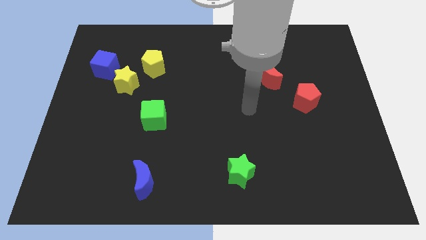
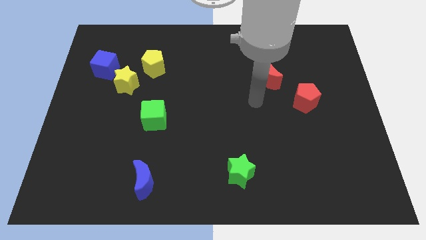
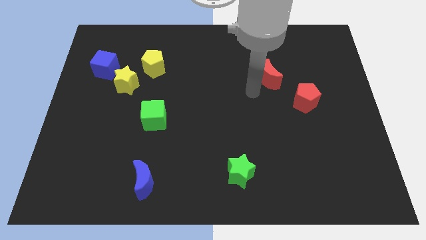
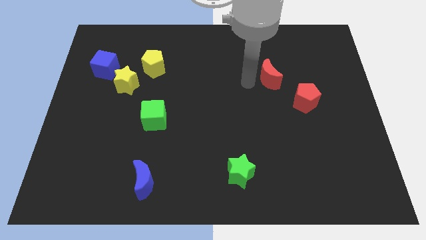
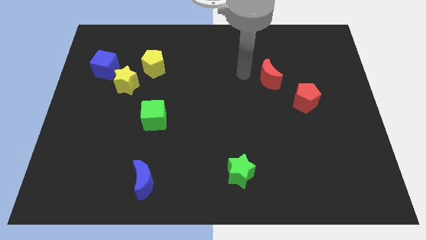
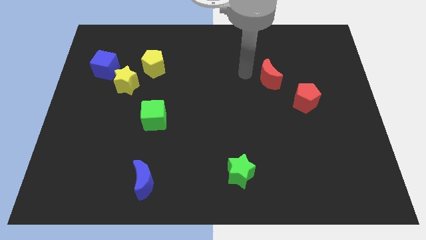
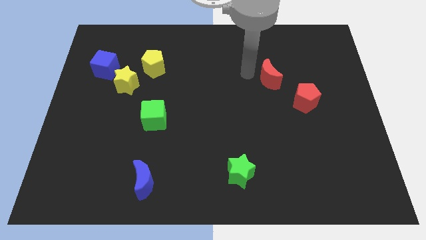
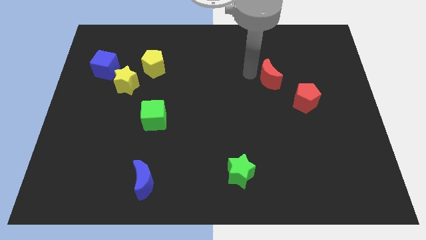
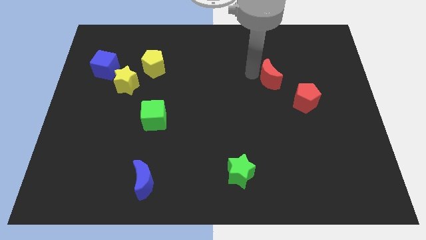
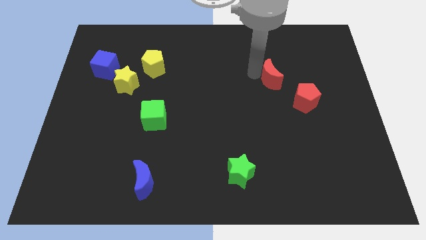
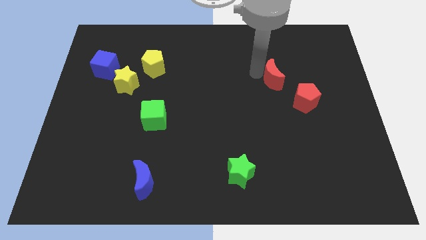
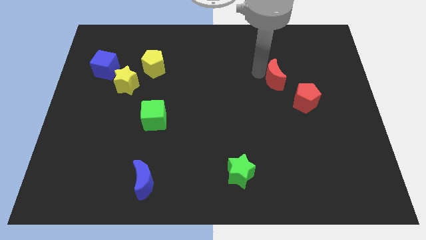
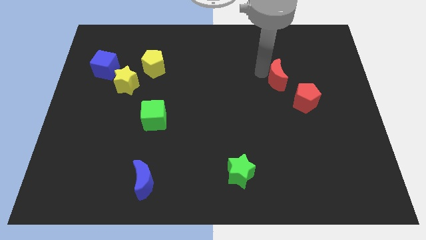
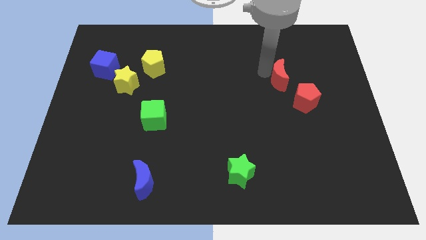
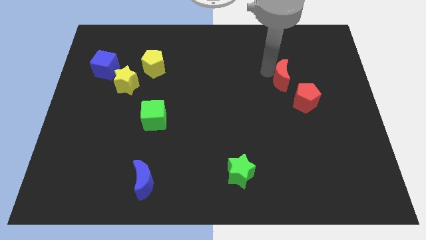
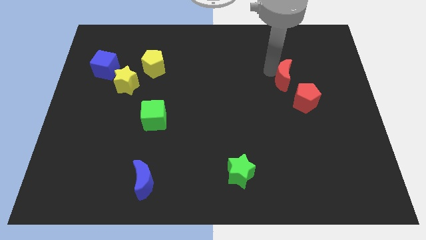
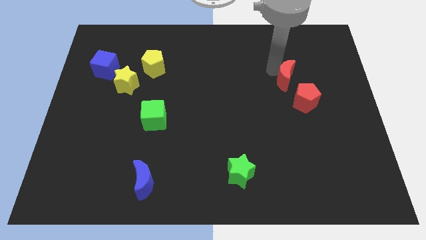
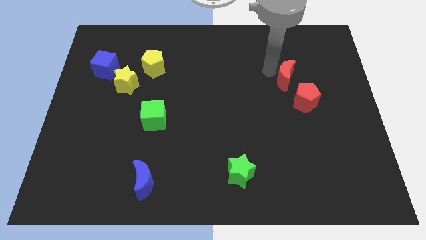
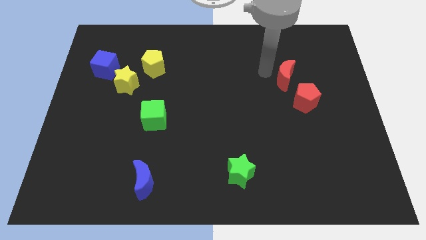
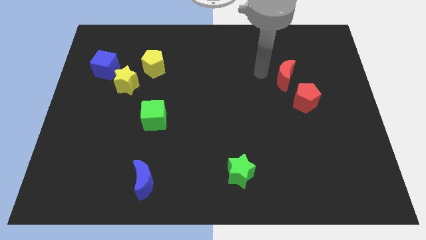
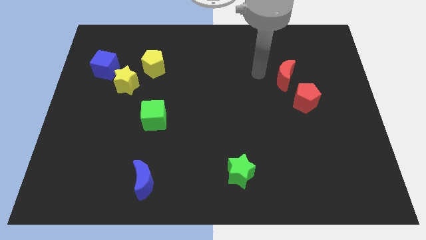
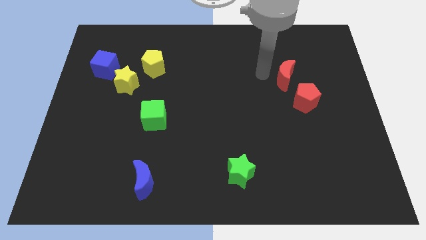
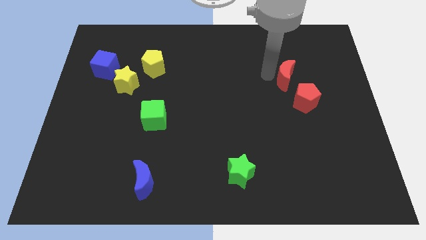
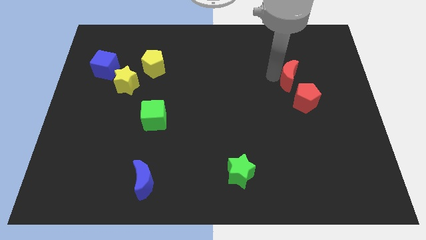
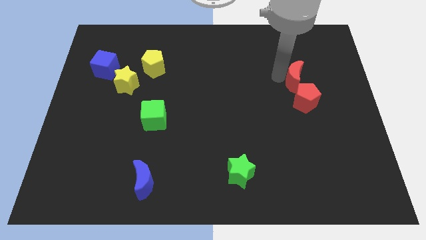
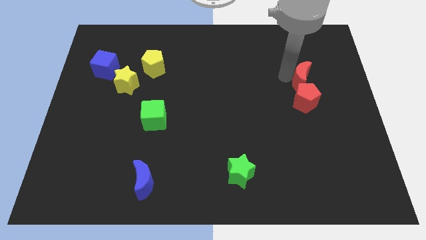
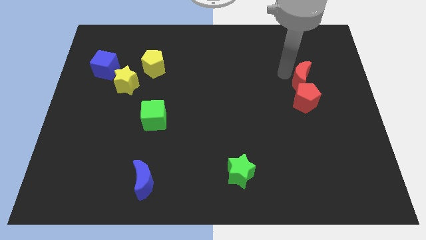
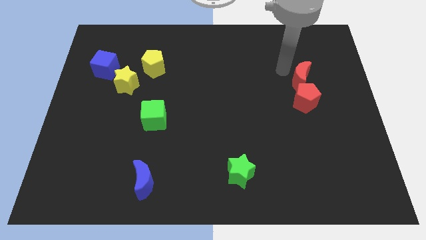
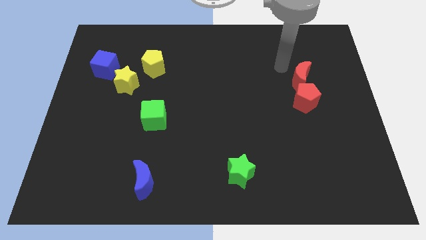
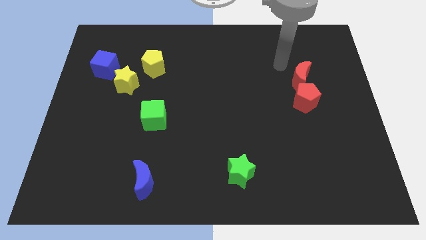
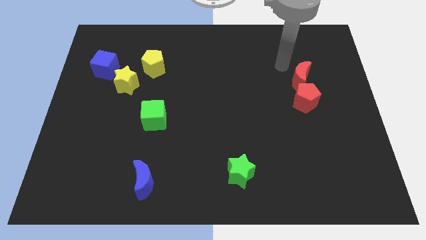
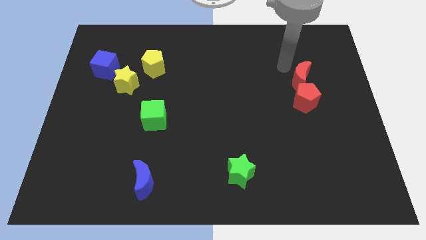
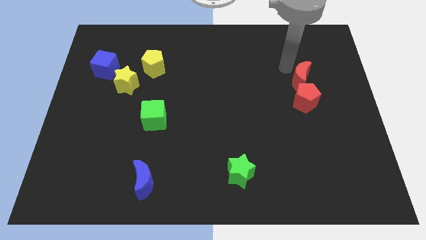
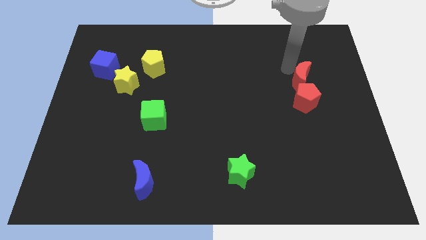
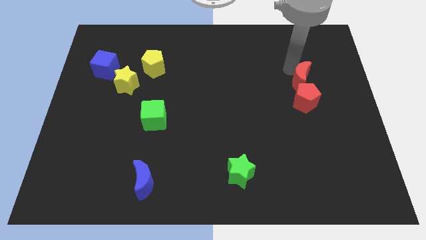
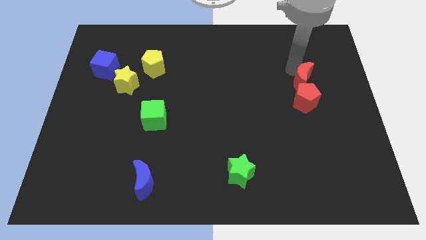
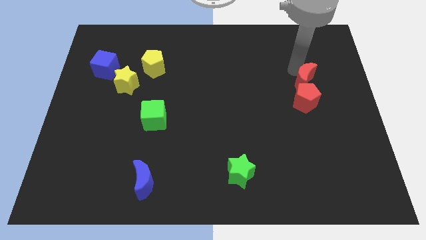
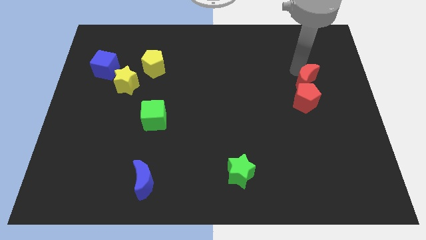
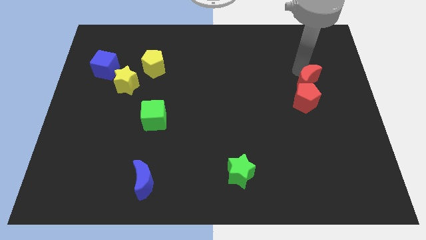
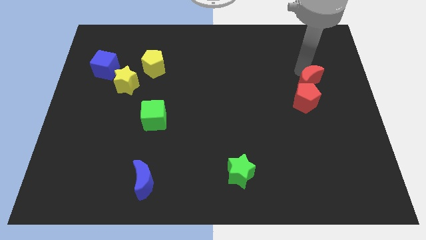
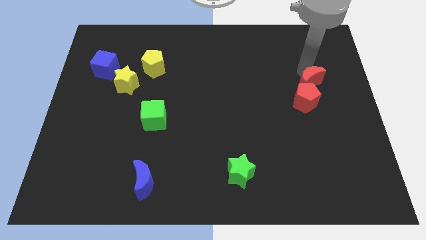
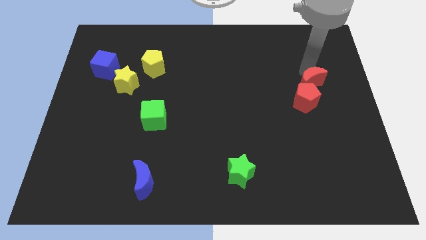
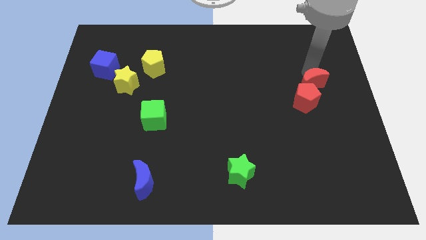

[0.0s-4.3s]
slightly slide the red moon down and right diagonally

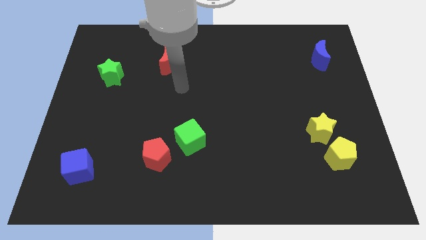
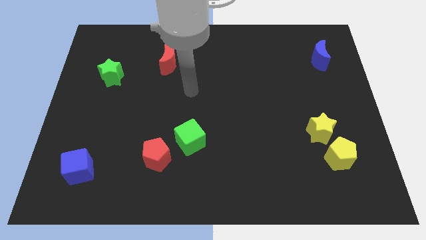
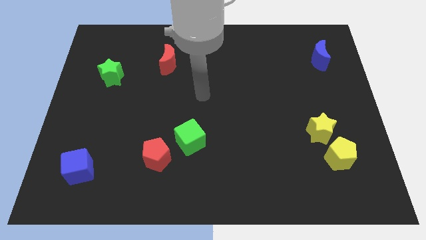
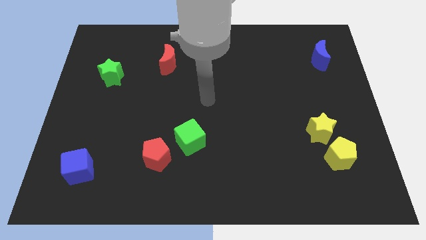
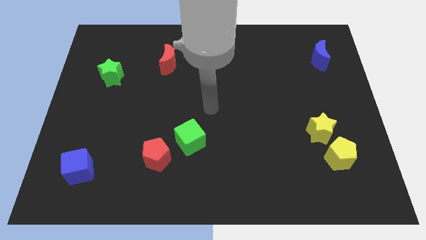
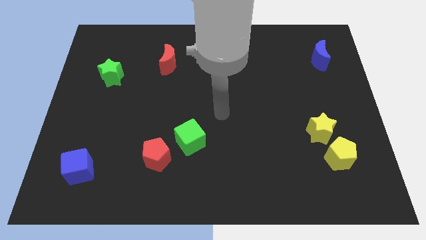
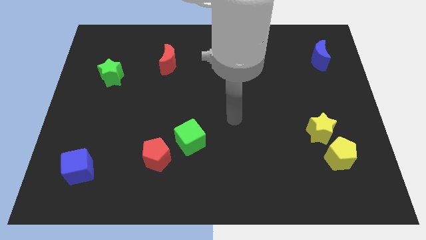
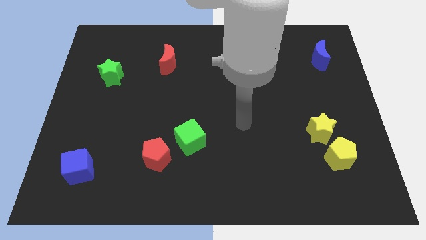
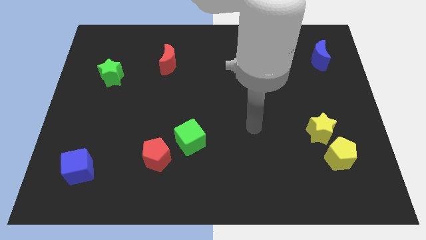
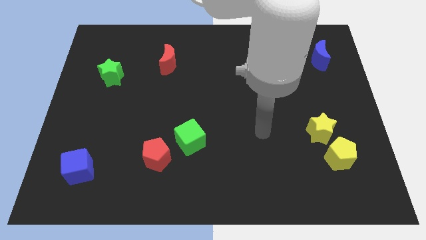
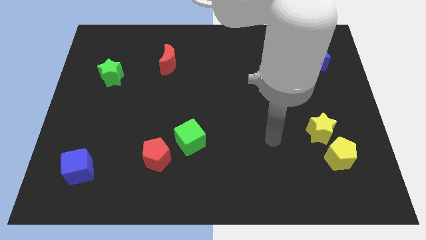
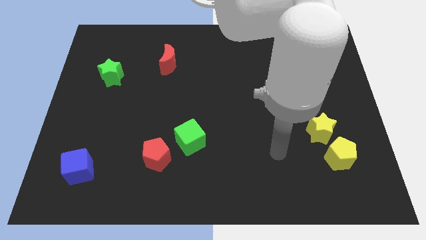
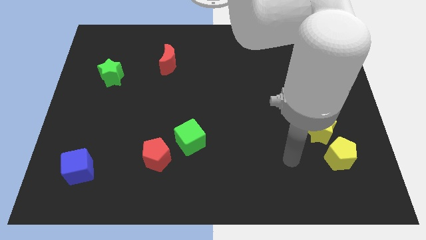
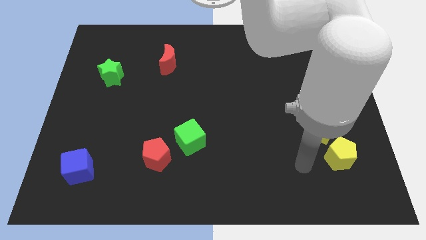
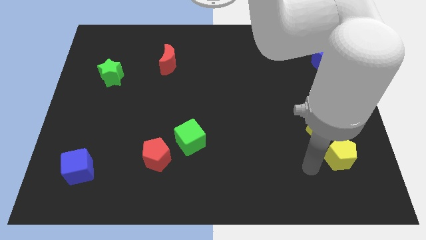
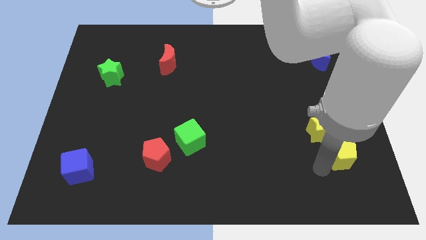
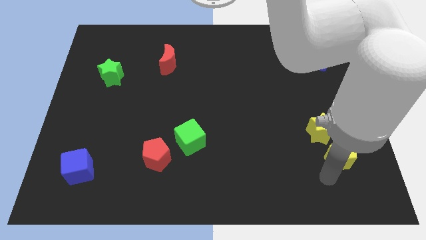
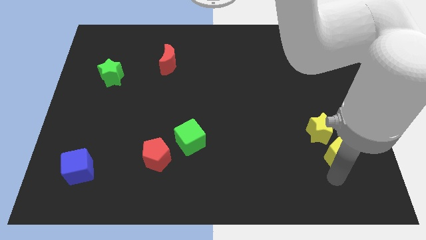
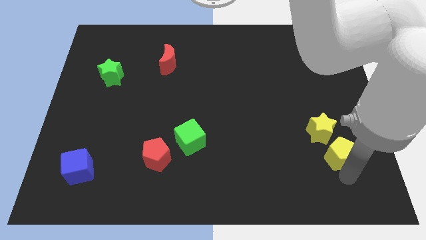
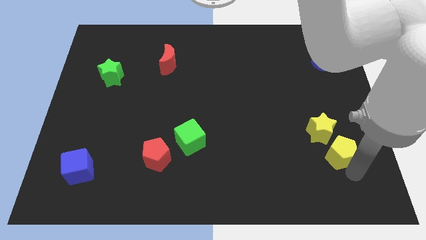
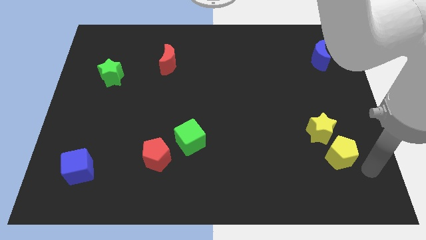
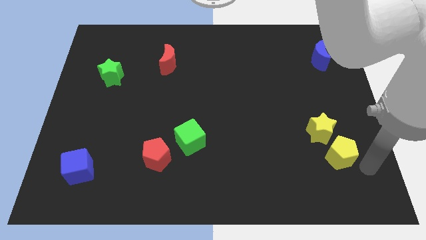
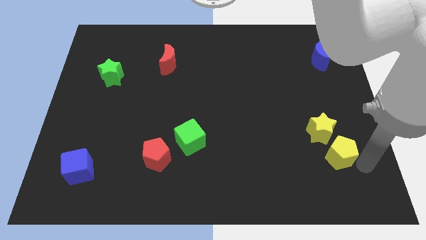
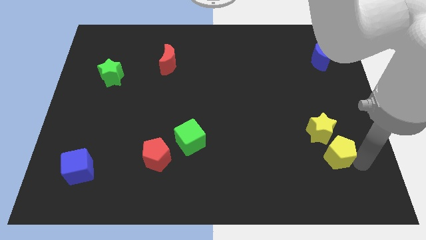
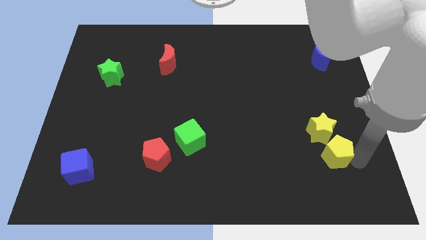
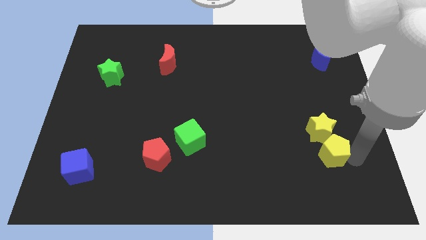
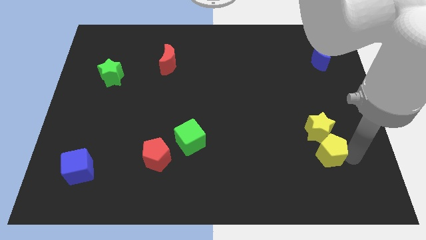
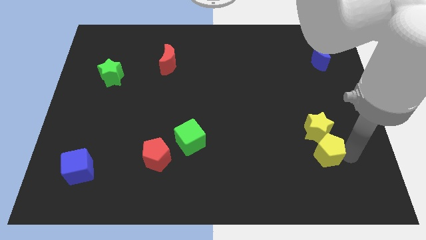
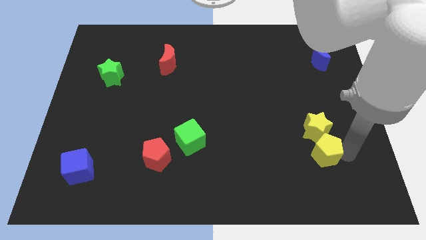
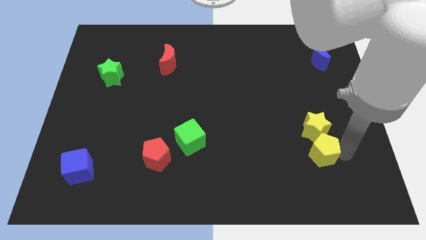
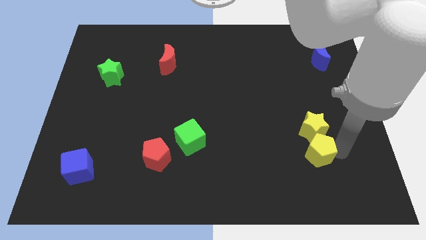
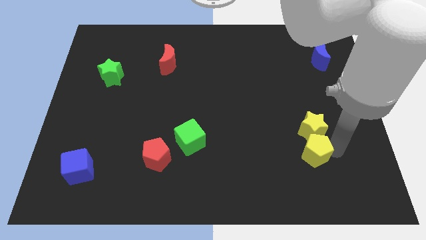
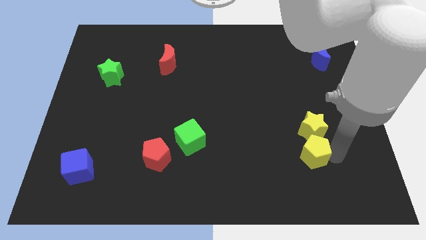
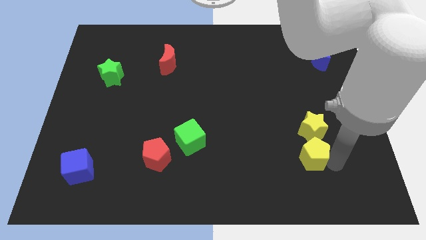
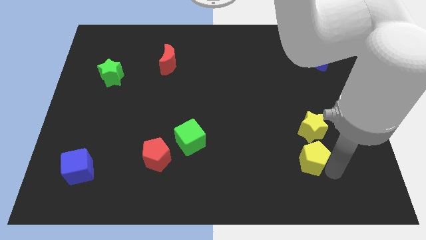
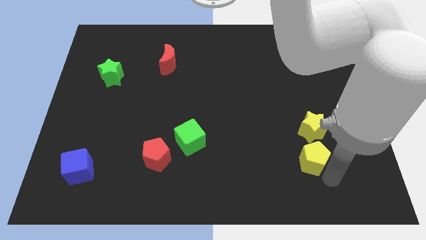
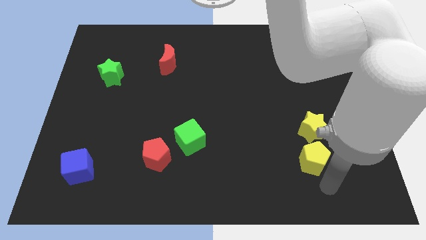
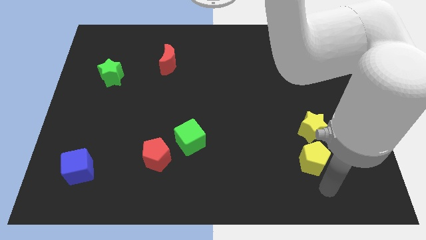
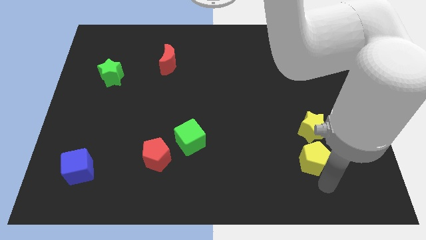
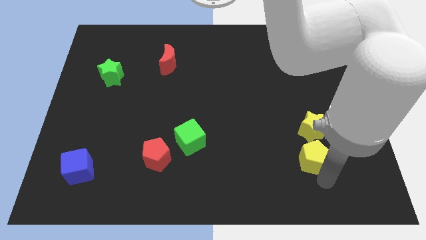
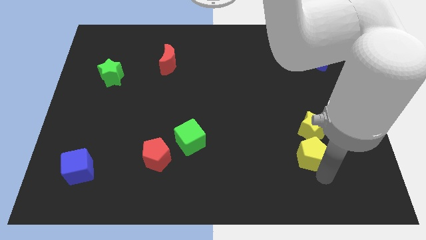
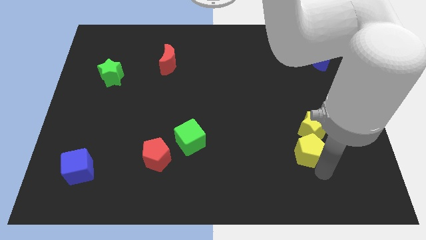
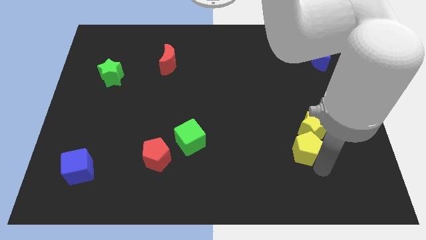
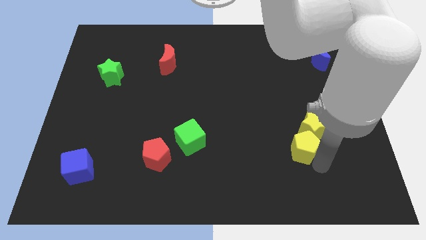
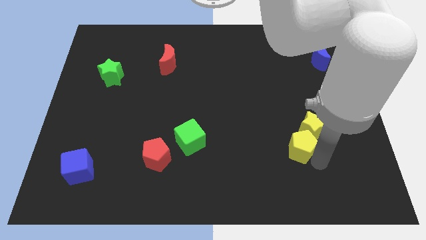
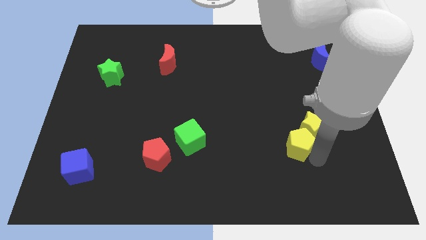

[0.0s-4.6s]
push the yellow pentagon a little bit upwards and then to the left
